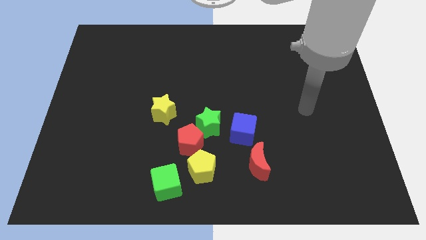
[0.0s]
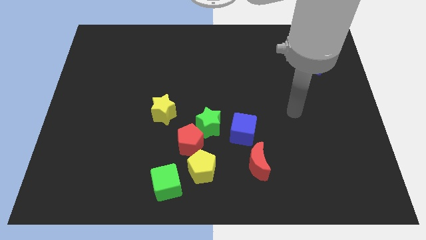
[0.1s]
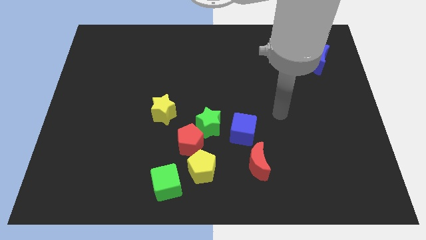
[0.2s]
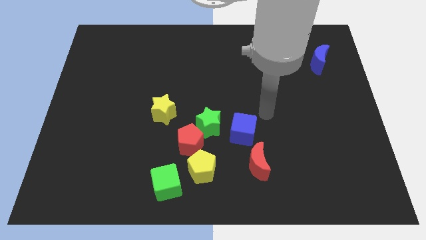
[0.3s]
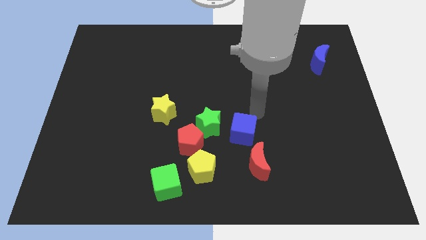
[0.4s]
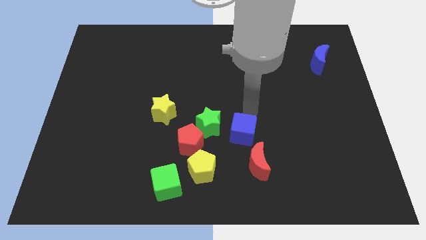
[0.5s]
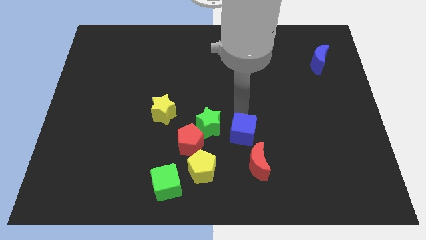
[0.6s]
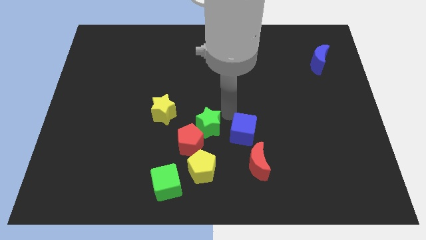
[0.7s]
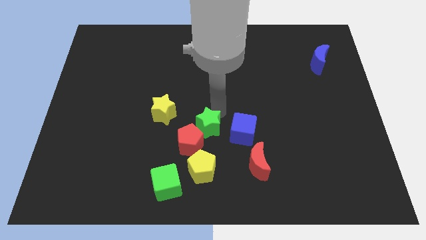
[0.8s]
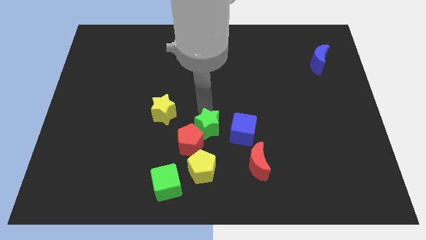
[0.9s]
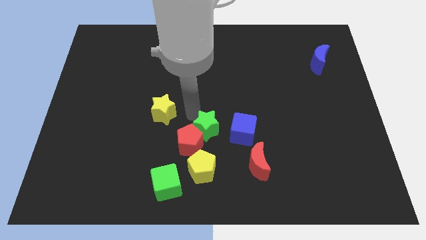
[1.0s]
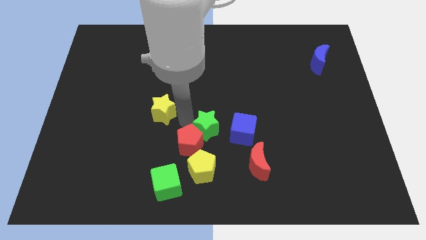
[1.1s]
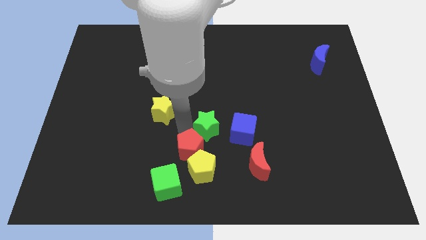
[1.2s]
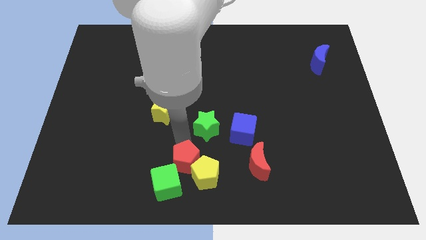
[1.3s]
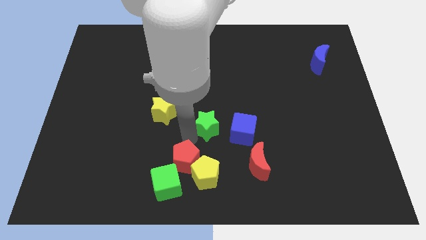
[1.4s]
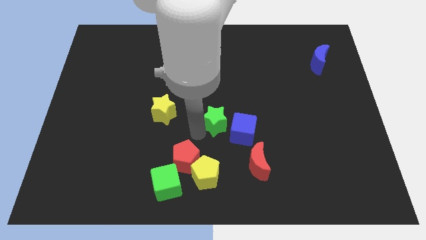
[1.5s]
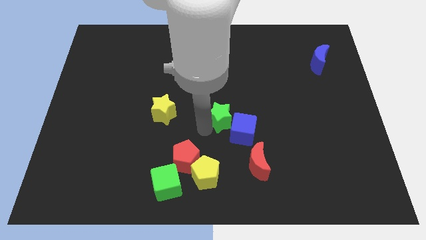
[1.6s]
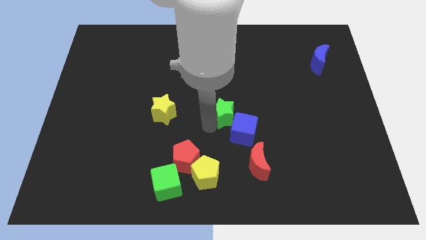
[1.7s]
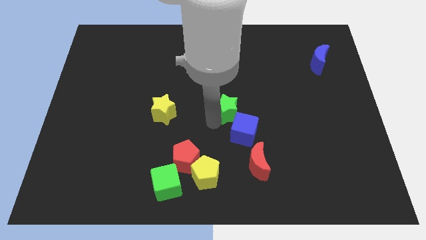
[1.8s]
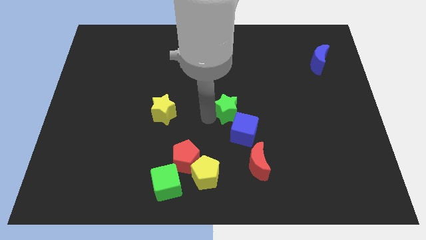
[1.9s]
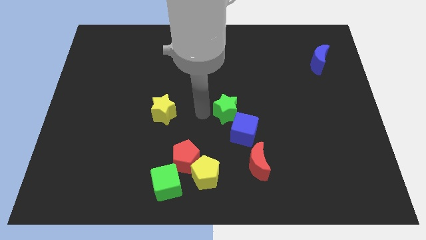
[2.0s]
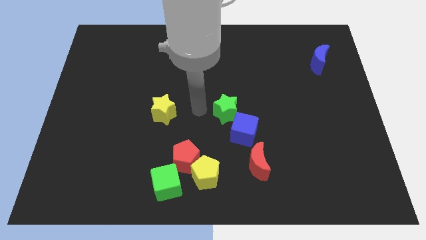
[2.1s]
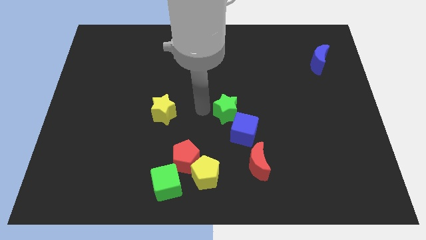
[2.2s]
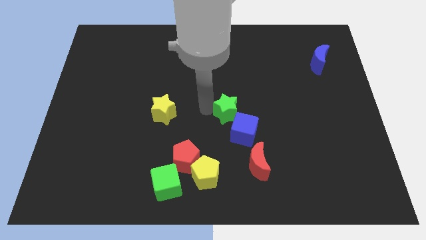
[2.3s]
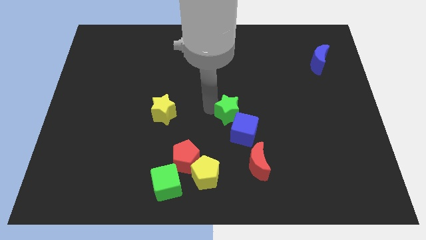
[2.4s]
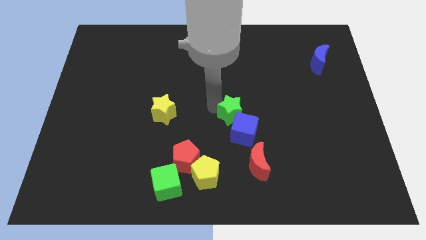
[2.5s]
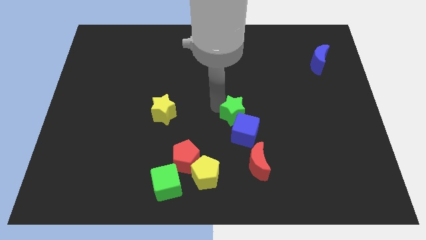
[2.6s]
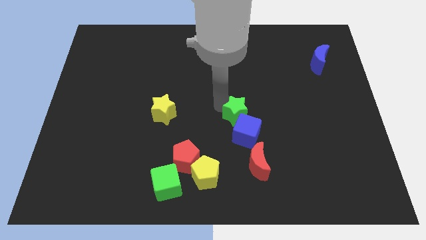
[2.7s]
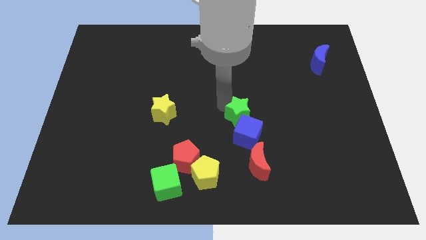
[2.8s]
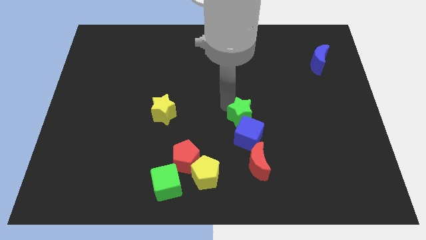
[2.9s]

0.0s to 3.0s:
slightly push the green star to the right

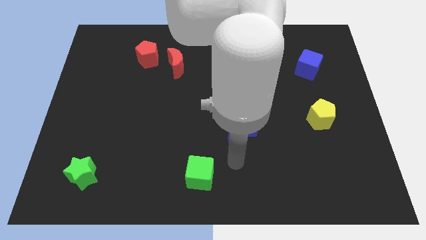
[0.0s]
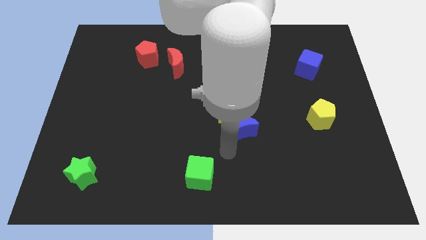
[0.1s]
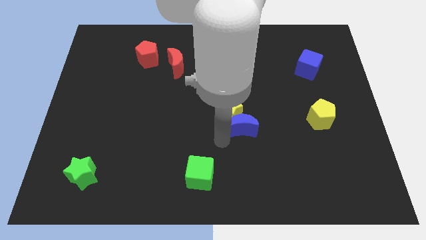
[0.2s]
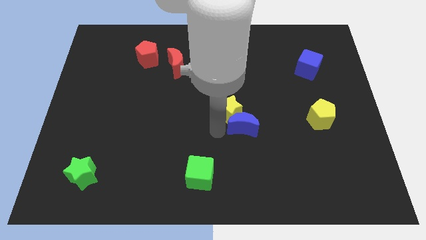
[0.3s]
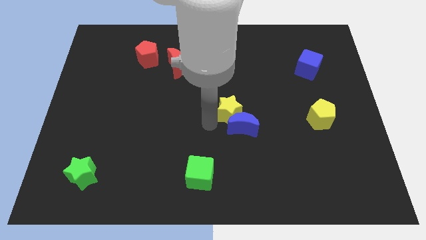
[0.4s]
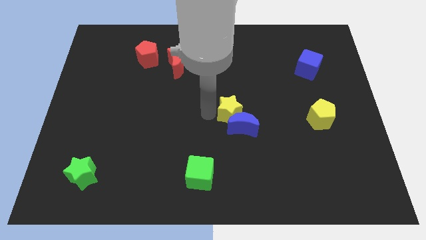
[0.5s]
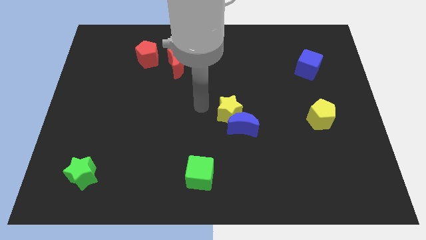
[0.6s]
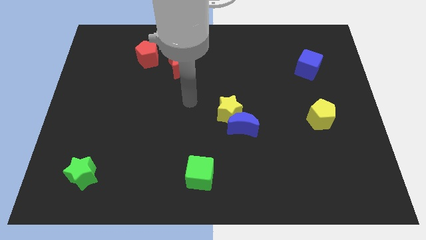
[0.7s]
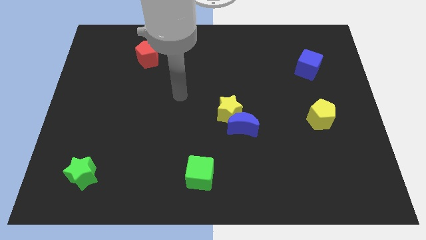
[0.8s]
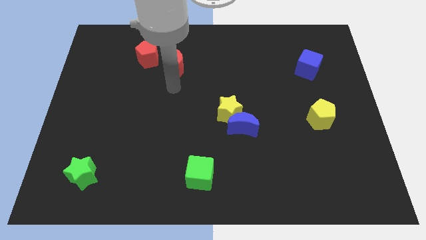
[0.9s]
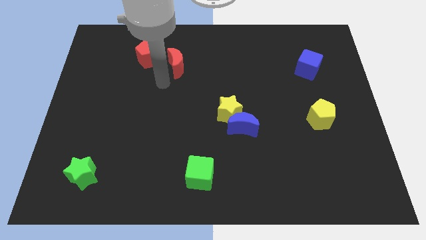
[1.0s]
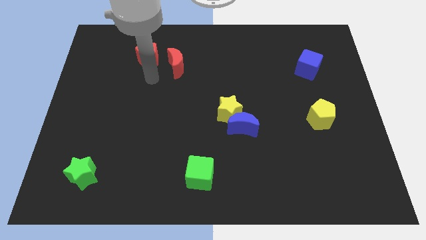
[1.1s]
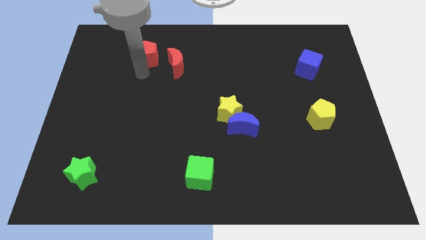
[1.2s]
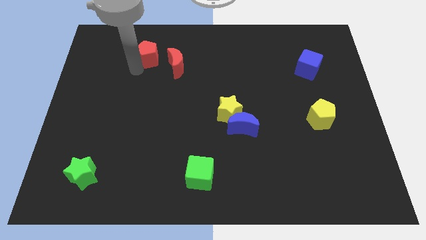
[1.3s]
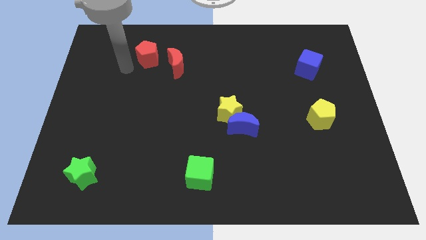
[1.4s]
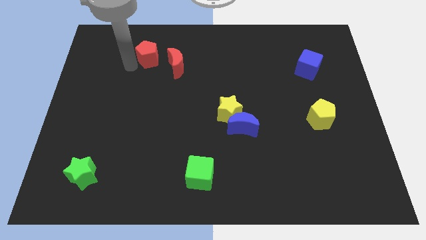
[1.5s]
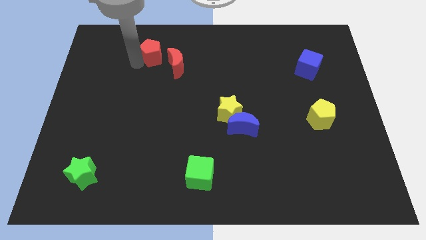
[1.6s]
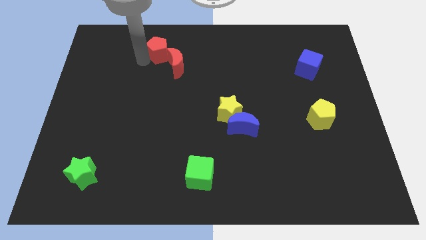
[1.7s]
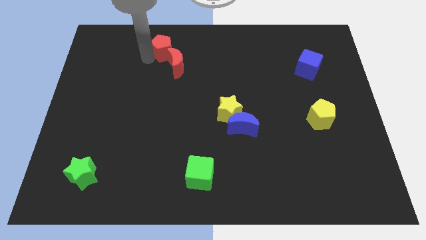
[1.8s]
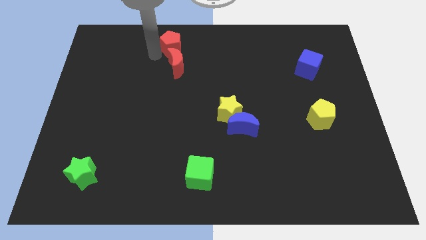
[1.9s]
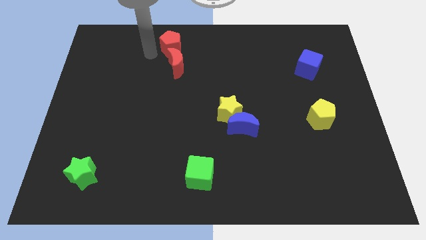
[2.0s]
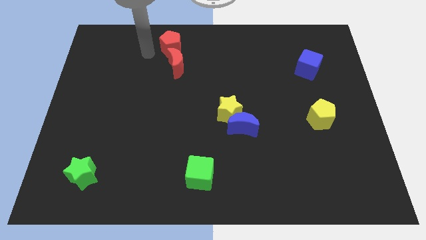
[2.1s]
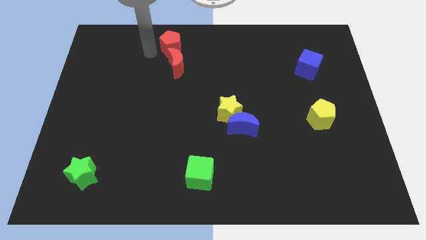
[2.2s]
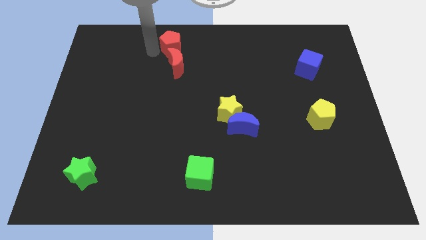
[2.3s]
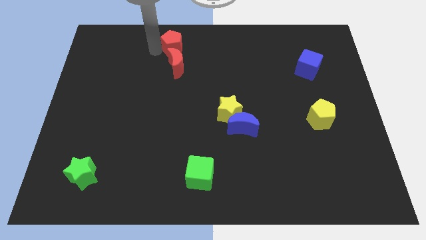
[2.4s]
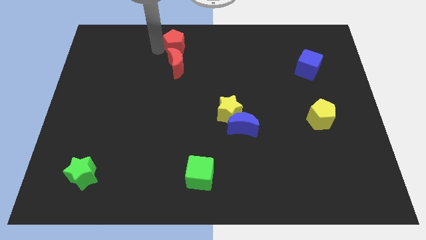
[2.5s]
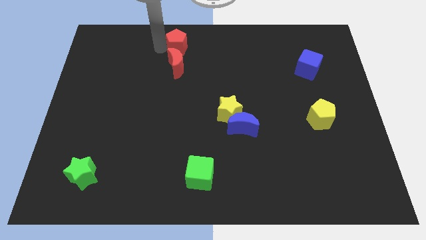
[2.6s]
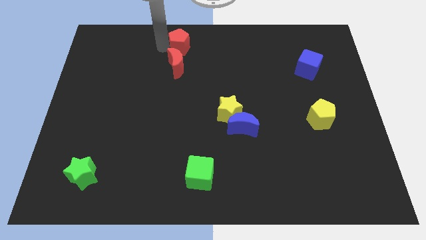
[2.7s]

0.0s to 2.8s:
slightly push the red pentagon to the right

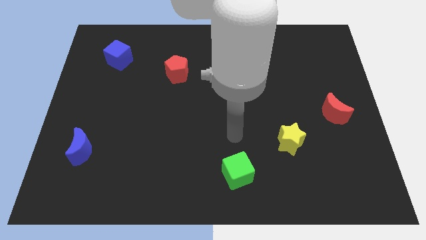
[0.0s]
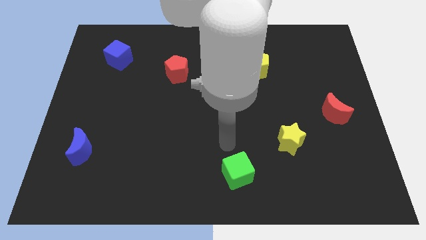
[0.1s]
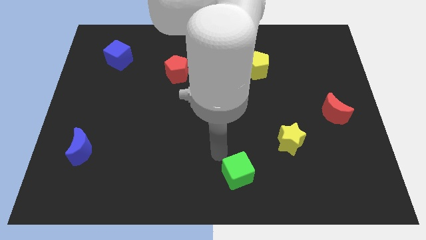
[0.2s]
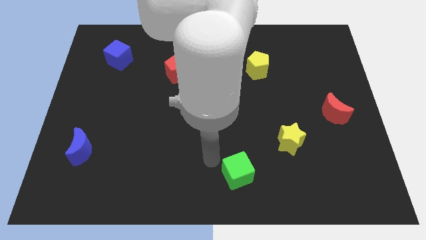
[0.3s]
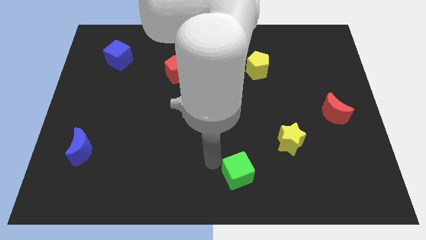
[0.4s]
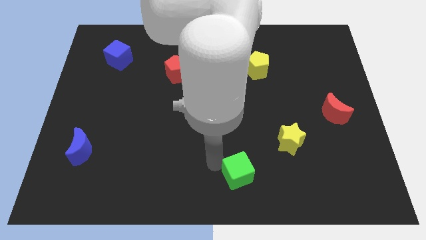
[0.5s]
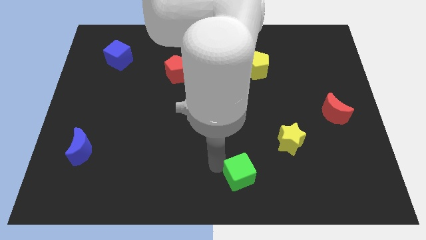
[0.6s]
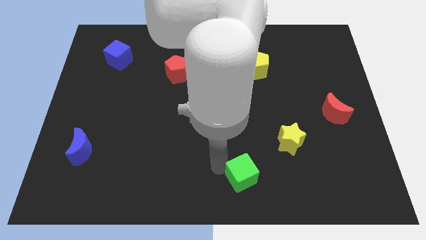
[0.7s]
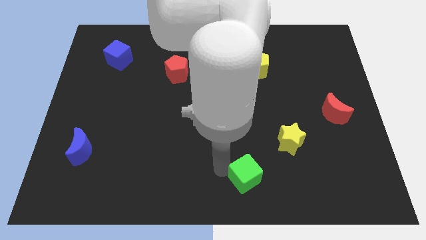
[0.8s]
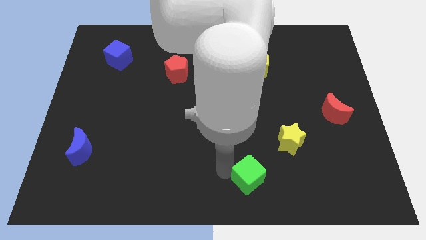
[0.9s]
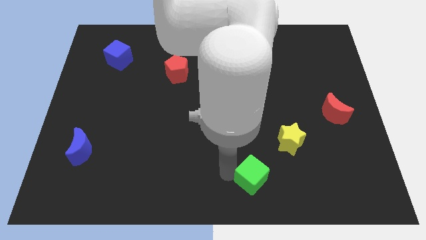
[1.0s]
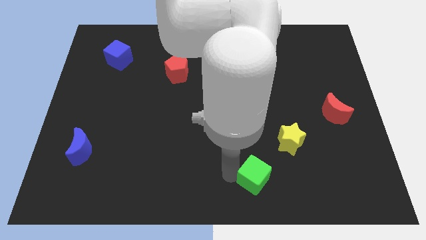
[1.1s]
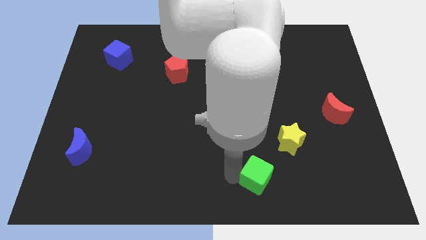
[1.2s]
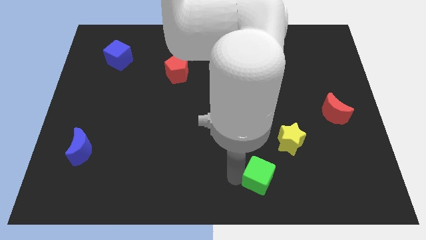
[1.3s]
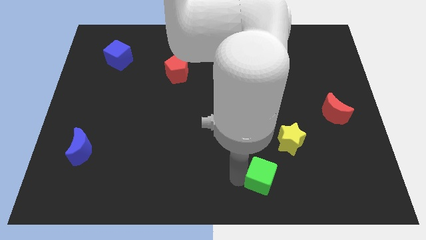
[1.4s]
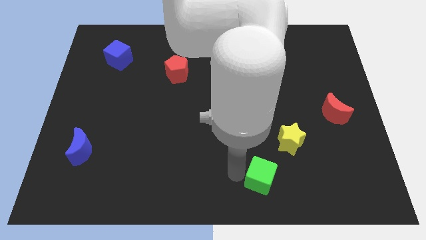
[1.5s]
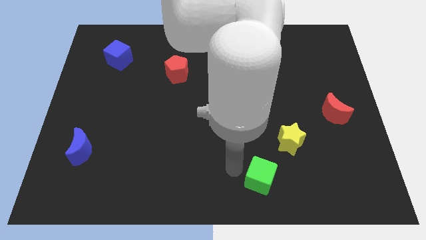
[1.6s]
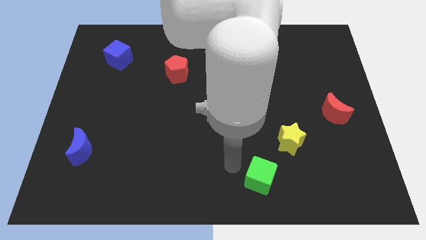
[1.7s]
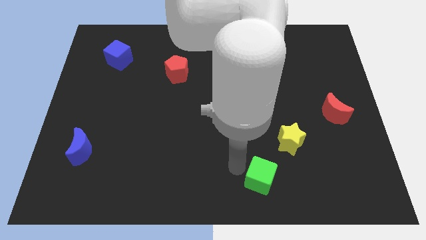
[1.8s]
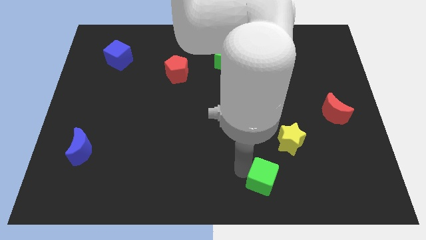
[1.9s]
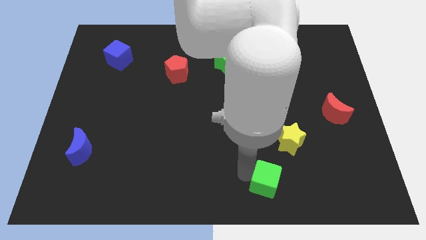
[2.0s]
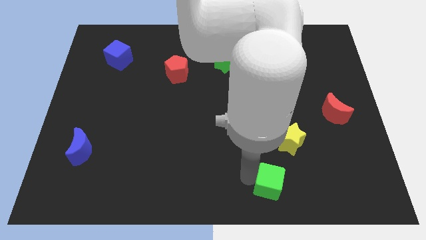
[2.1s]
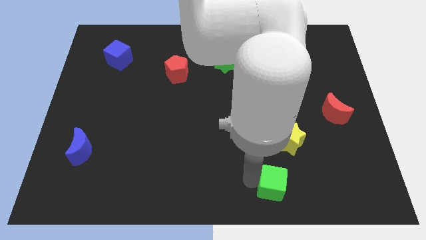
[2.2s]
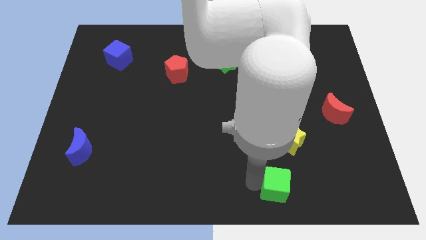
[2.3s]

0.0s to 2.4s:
push the green cube to the right a little bit

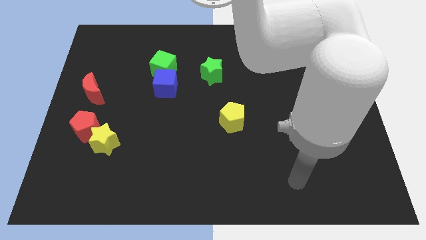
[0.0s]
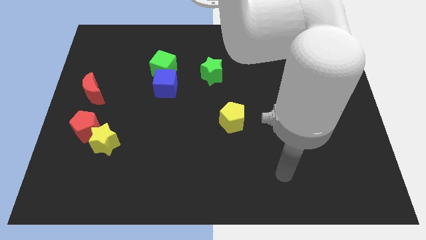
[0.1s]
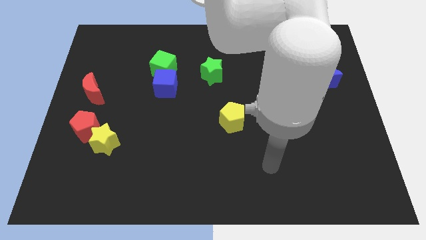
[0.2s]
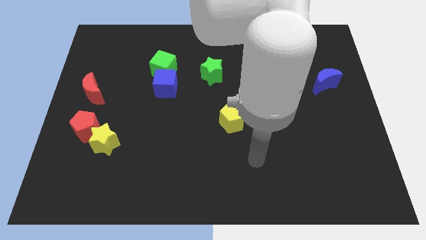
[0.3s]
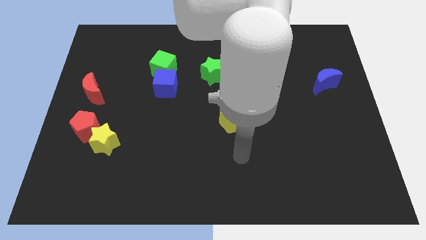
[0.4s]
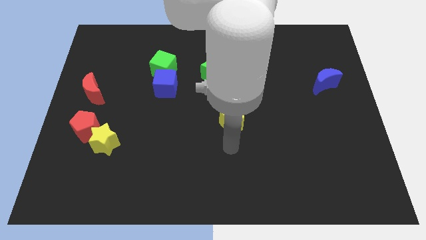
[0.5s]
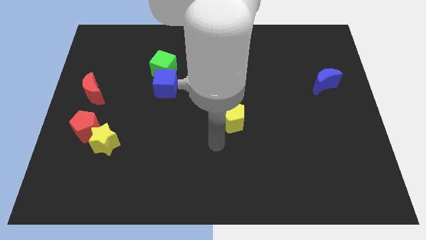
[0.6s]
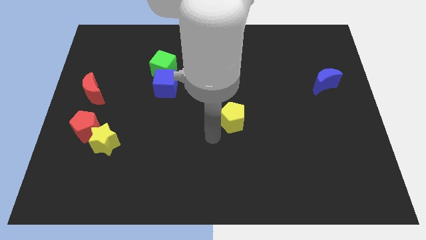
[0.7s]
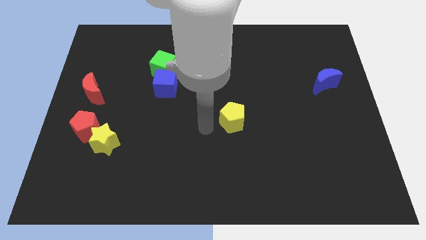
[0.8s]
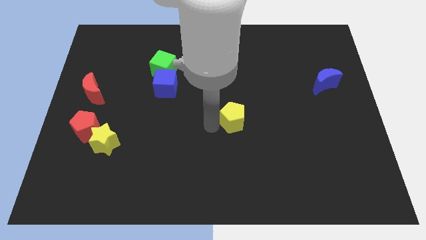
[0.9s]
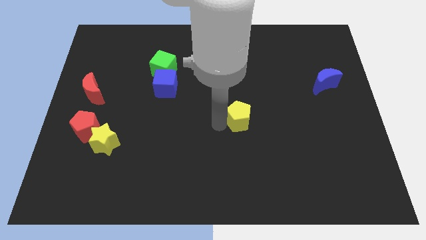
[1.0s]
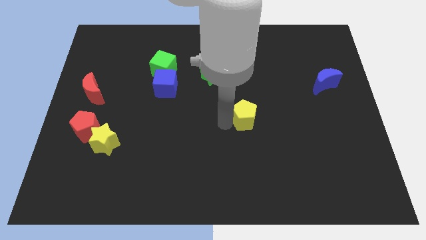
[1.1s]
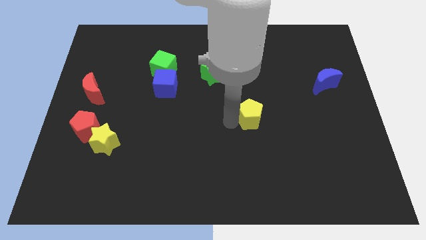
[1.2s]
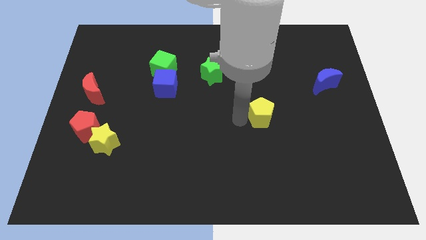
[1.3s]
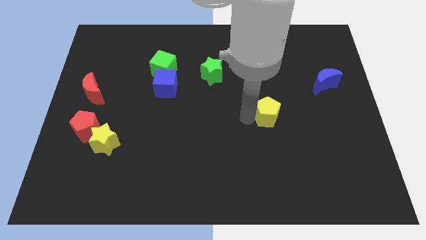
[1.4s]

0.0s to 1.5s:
slightly push the yellow pentagon right
